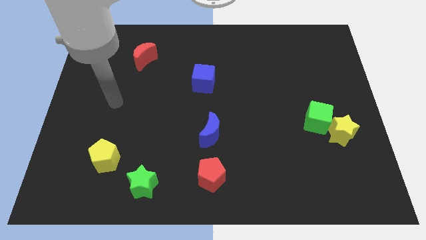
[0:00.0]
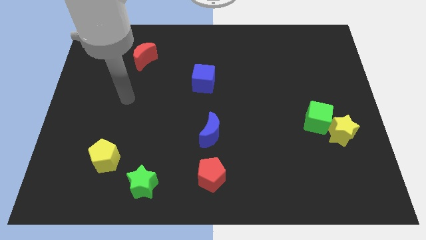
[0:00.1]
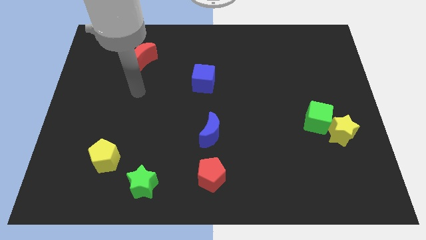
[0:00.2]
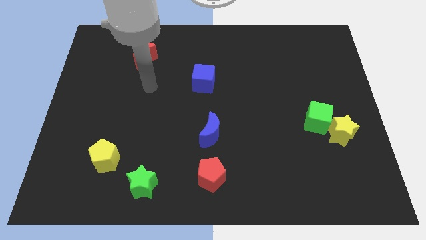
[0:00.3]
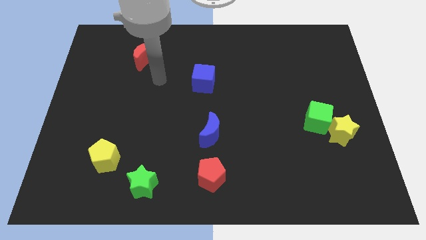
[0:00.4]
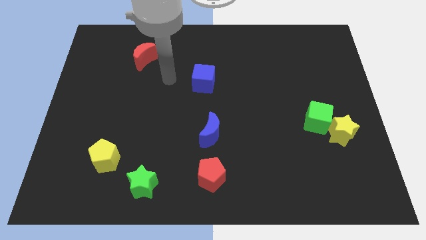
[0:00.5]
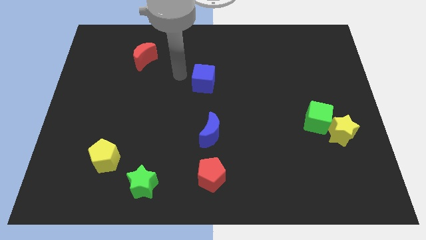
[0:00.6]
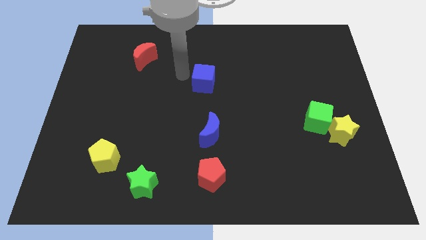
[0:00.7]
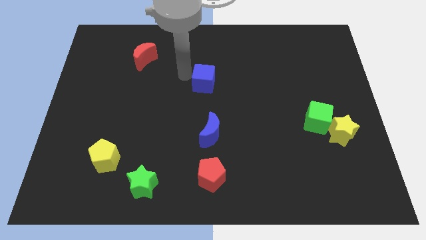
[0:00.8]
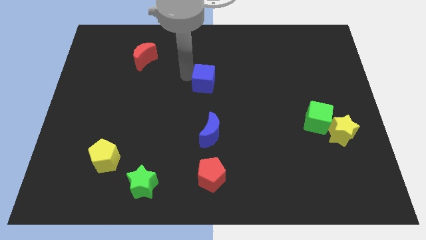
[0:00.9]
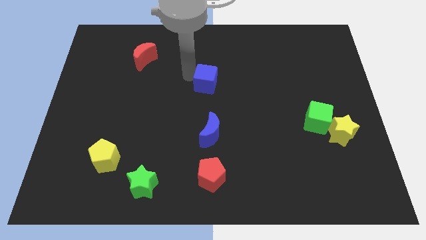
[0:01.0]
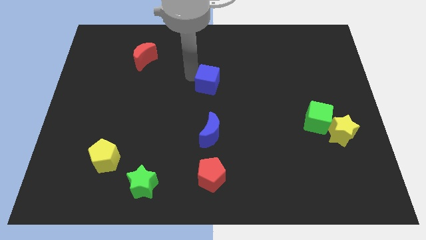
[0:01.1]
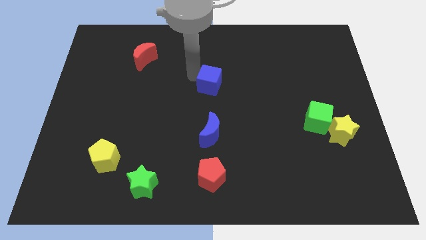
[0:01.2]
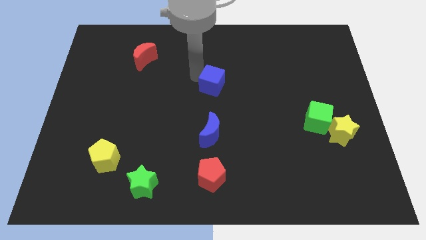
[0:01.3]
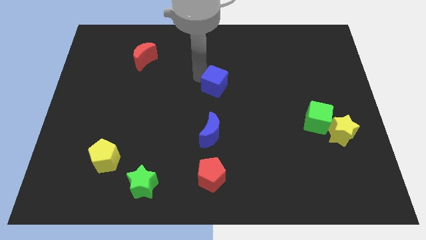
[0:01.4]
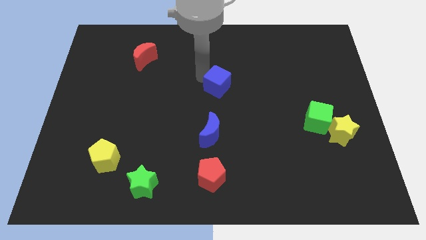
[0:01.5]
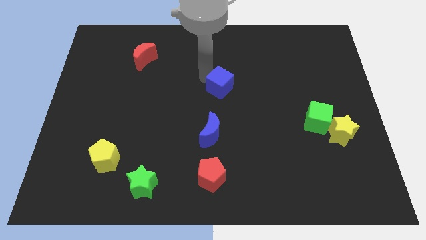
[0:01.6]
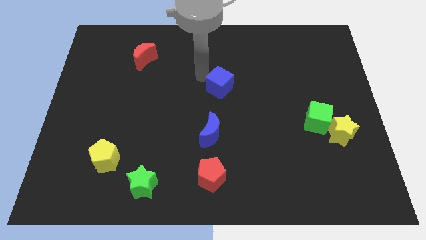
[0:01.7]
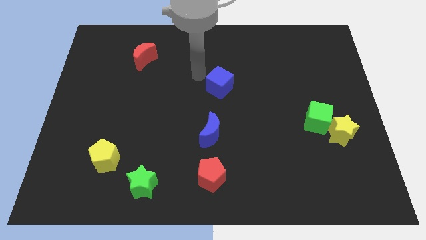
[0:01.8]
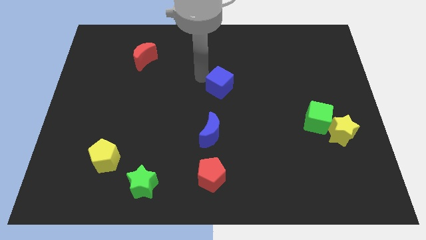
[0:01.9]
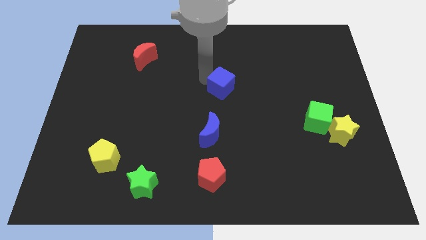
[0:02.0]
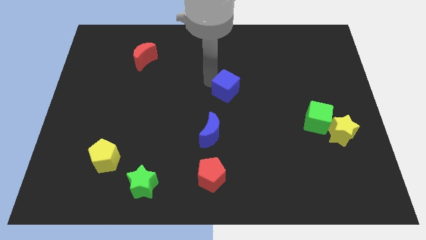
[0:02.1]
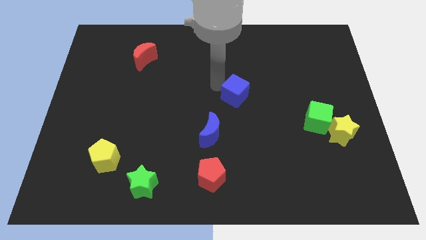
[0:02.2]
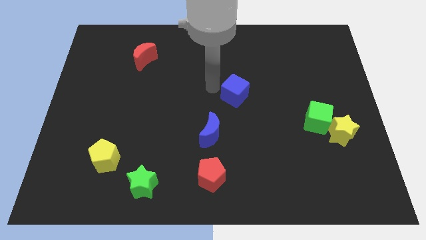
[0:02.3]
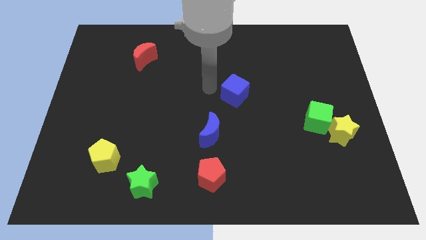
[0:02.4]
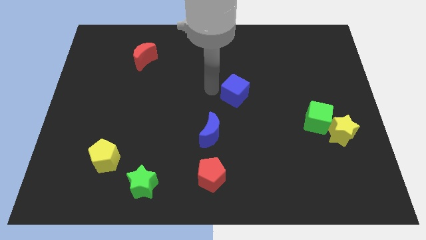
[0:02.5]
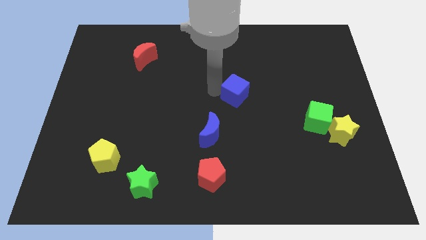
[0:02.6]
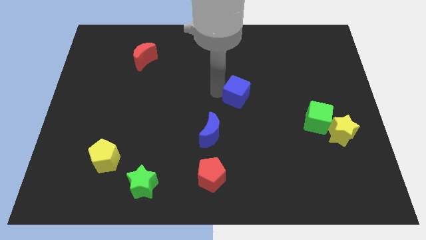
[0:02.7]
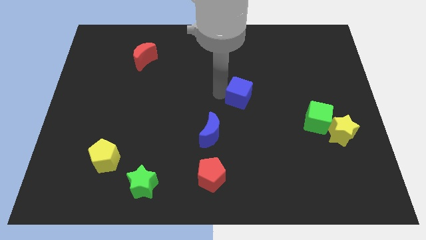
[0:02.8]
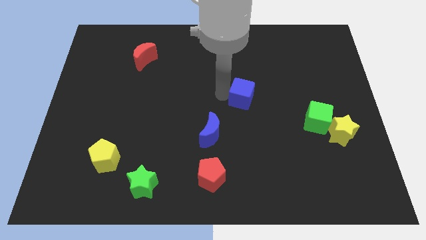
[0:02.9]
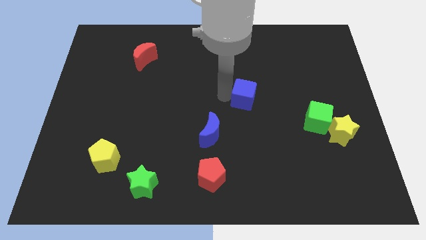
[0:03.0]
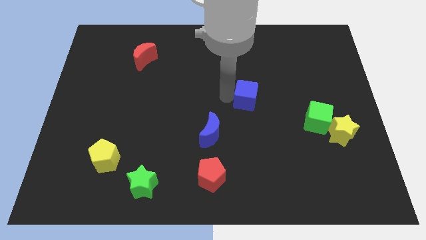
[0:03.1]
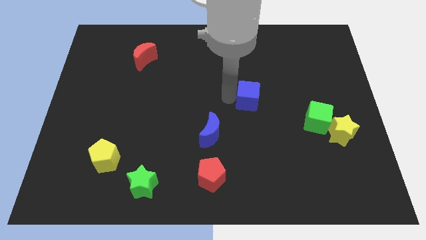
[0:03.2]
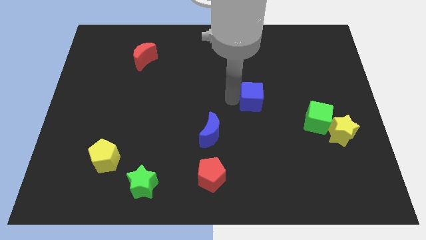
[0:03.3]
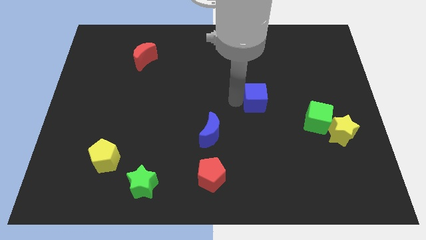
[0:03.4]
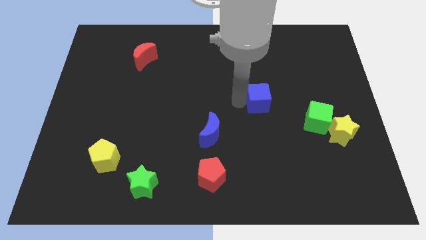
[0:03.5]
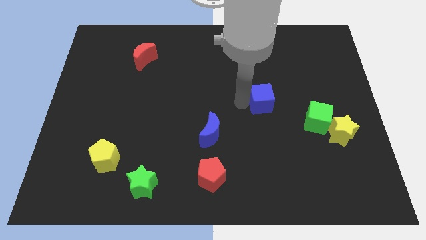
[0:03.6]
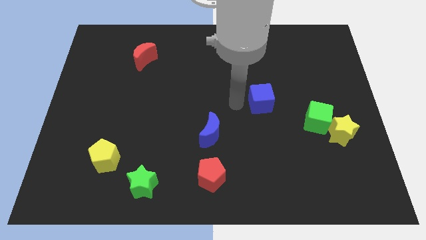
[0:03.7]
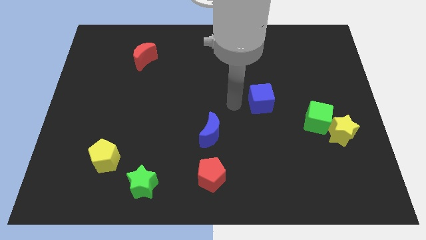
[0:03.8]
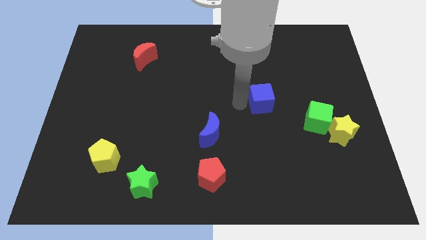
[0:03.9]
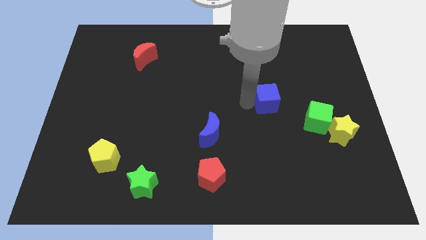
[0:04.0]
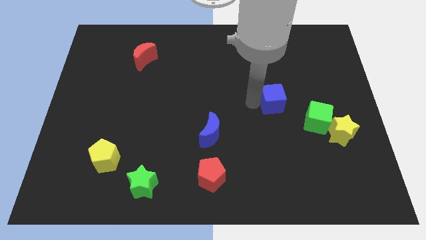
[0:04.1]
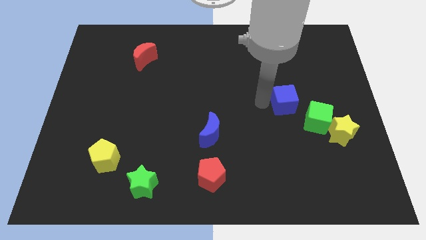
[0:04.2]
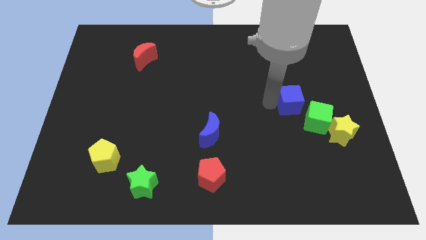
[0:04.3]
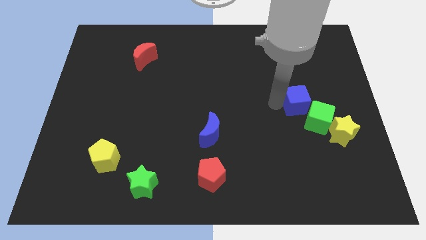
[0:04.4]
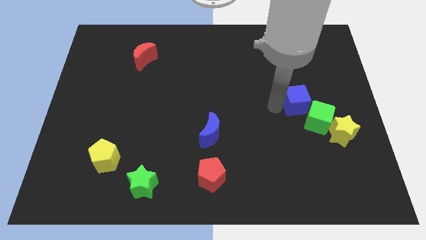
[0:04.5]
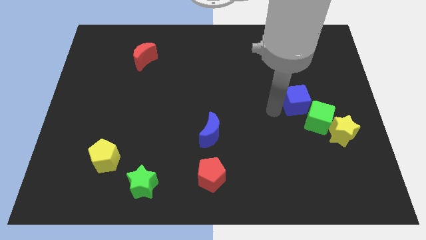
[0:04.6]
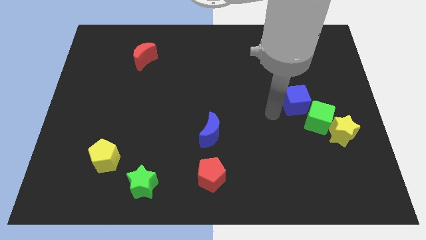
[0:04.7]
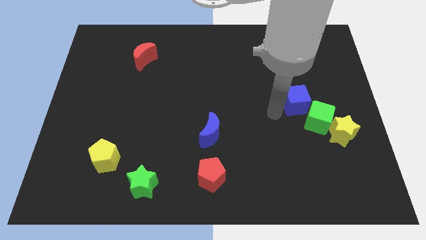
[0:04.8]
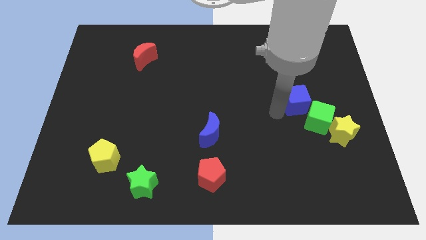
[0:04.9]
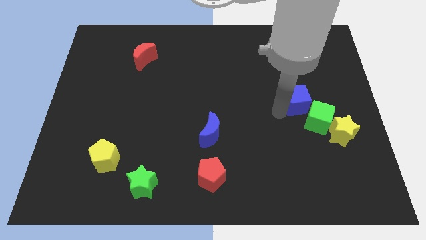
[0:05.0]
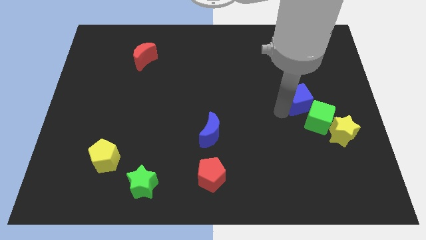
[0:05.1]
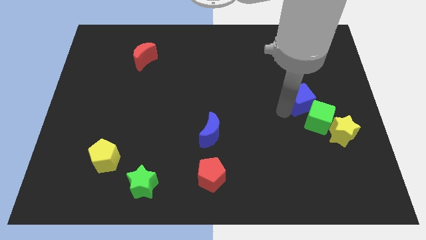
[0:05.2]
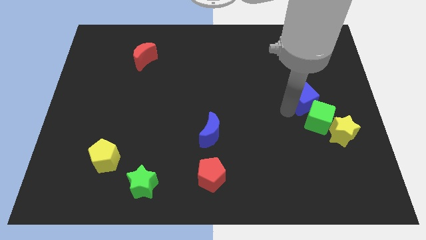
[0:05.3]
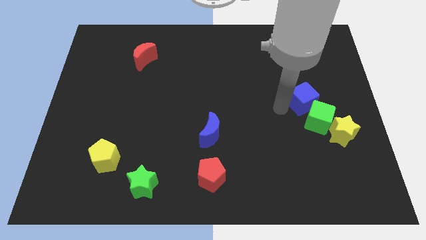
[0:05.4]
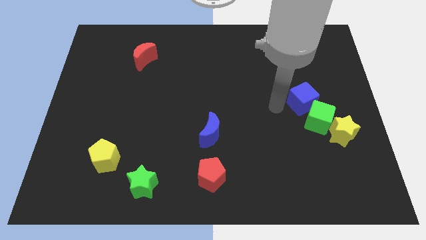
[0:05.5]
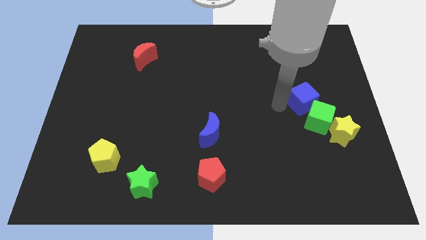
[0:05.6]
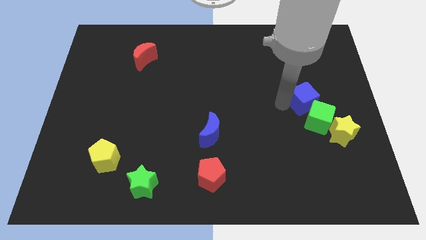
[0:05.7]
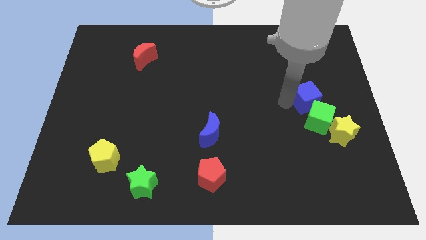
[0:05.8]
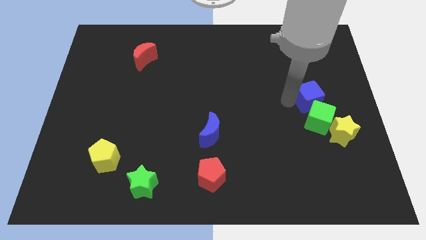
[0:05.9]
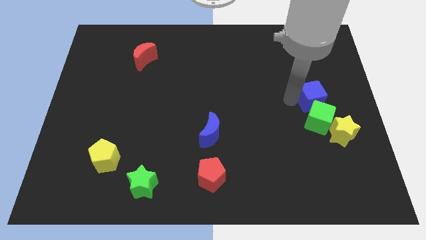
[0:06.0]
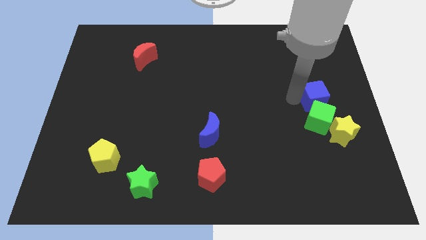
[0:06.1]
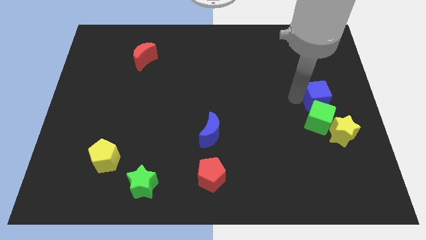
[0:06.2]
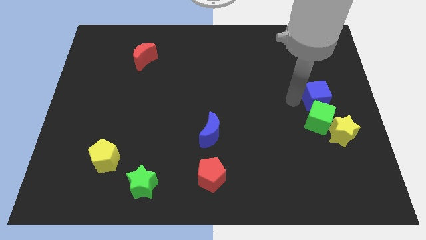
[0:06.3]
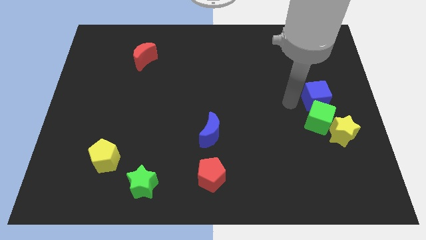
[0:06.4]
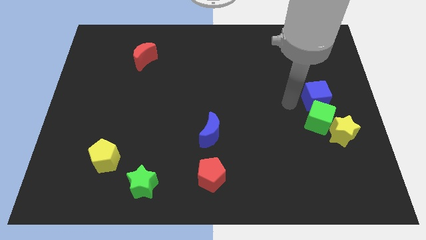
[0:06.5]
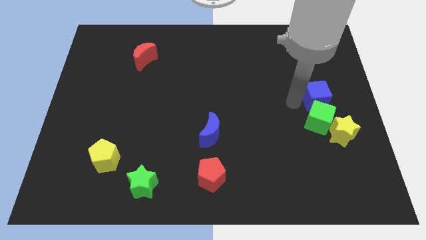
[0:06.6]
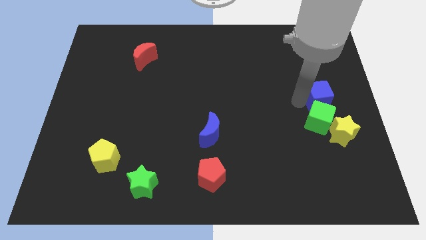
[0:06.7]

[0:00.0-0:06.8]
push the blue cube to the right side
